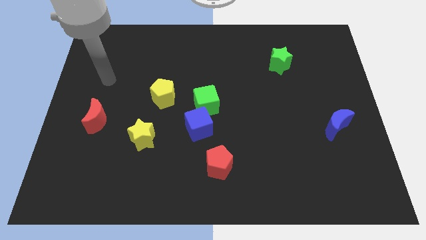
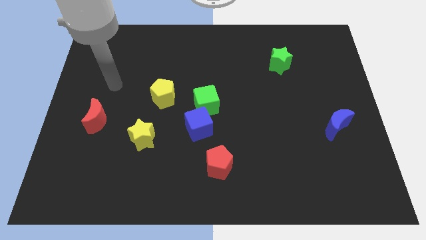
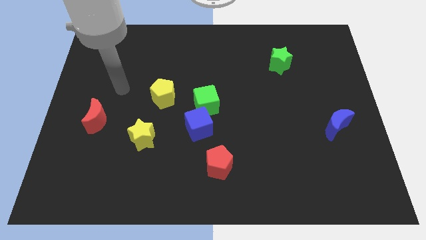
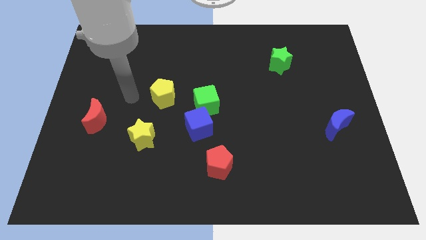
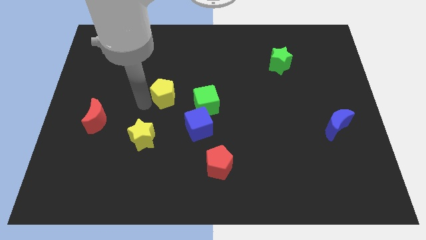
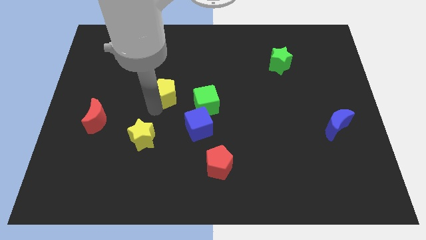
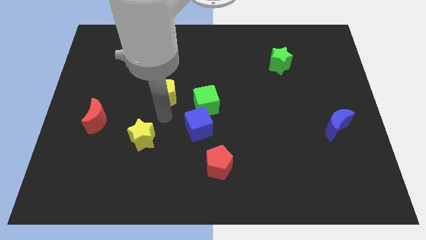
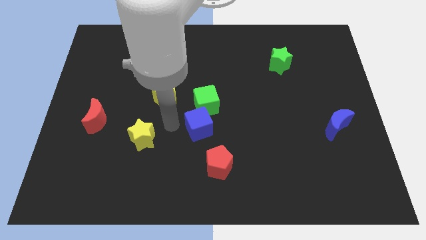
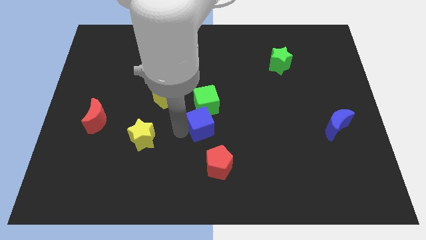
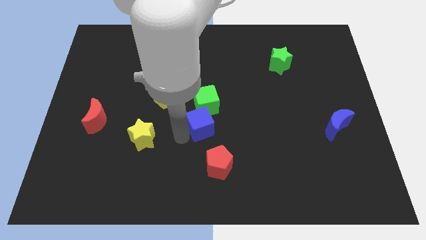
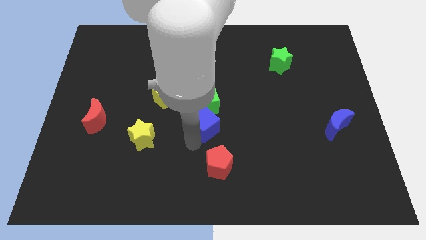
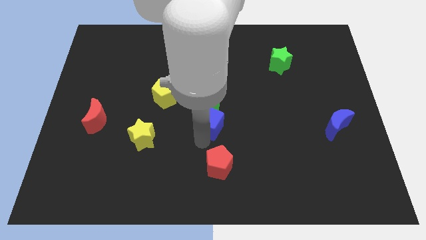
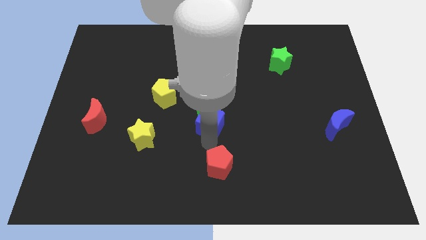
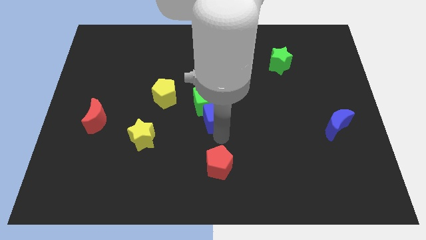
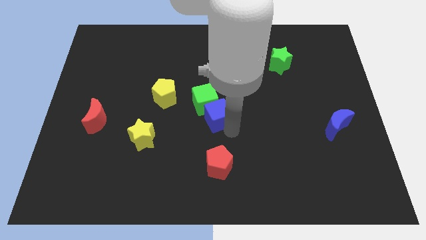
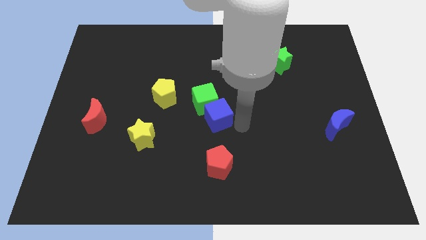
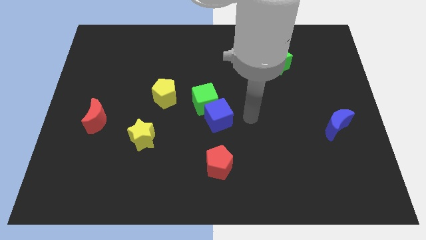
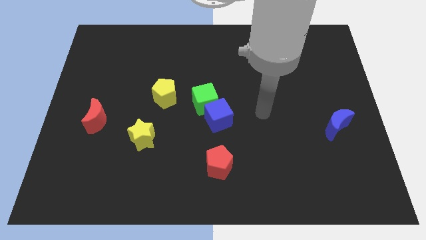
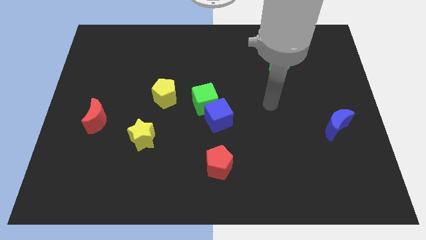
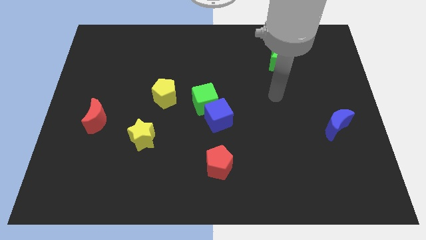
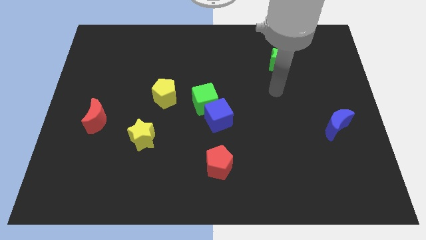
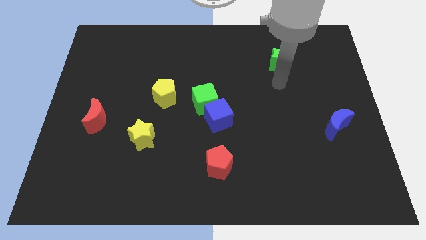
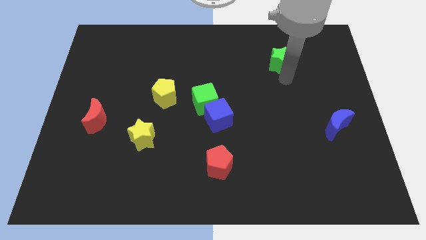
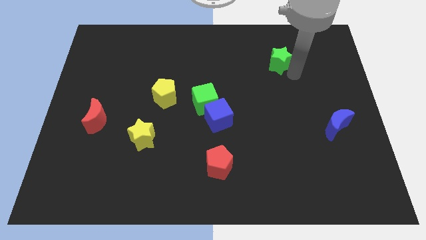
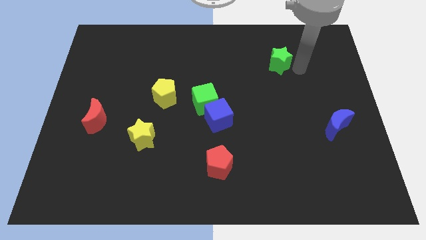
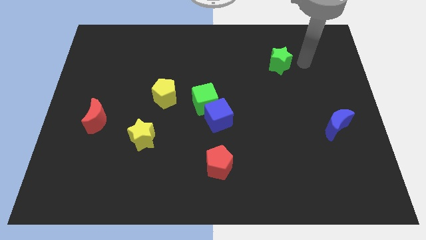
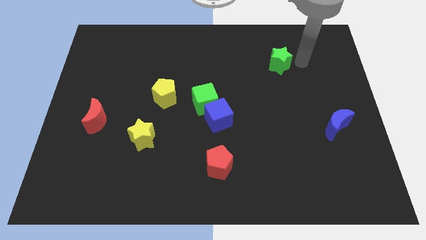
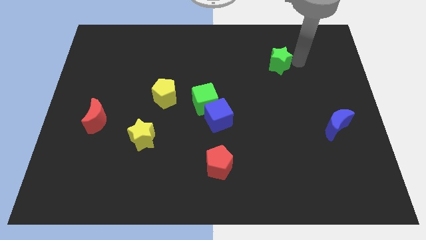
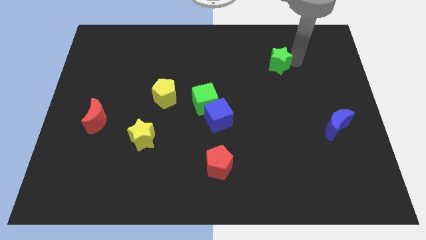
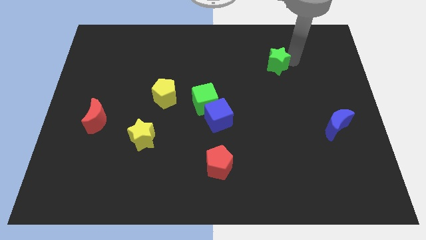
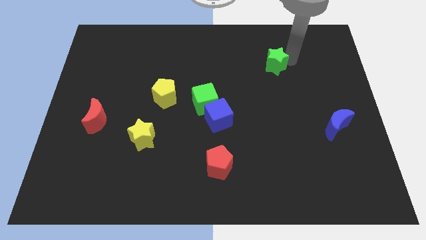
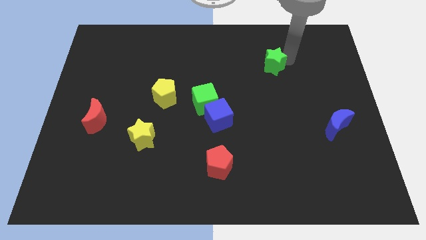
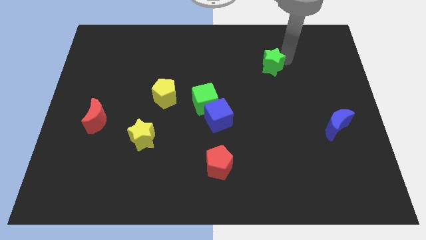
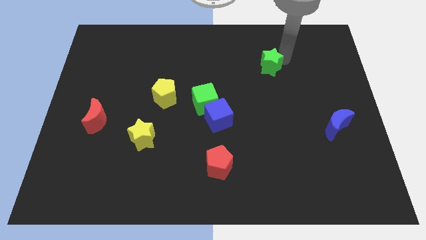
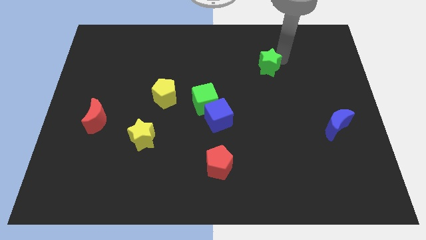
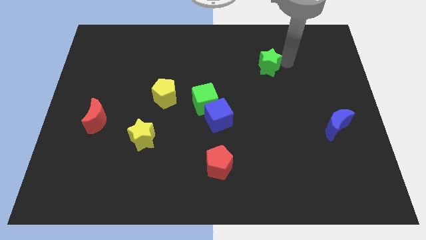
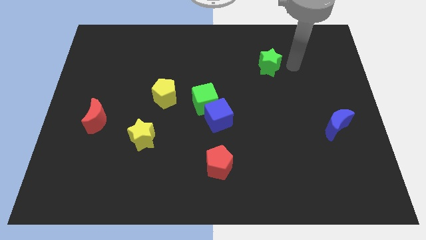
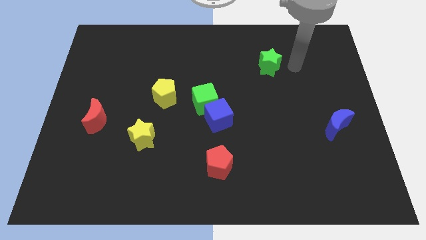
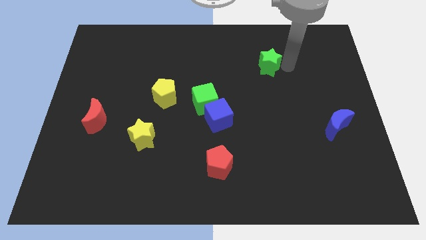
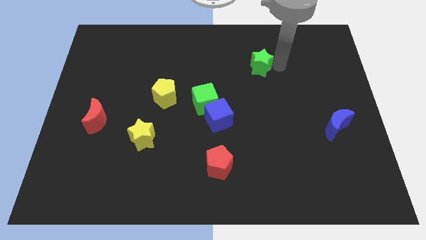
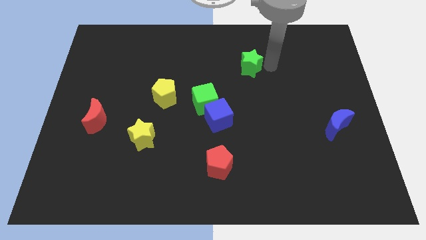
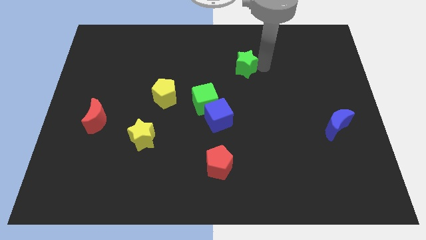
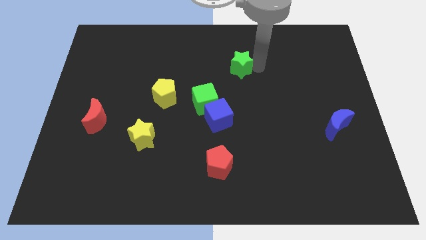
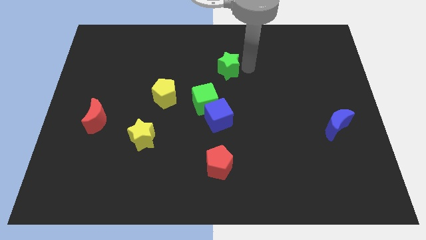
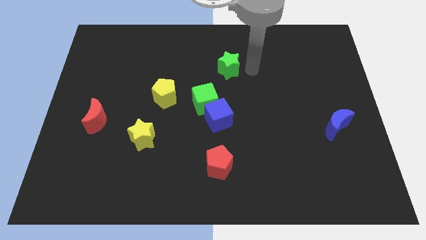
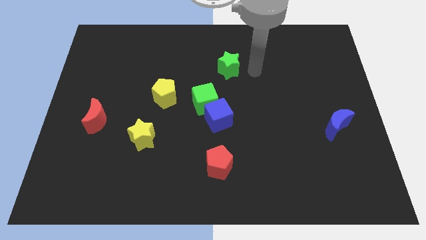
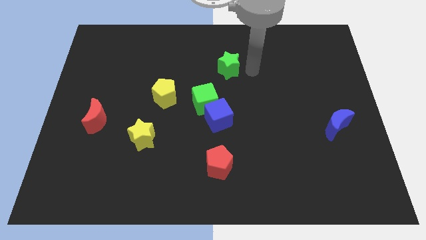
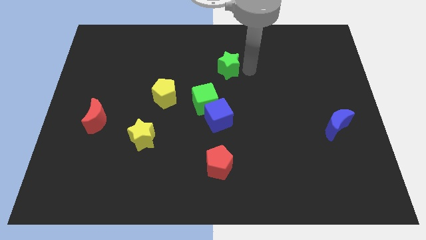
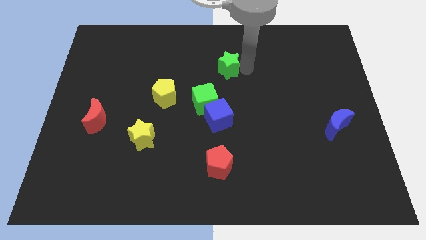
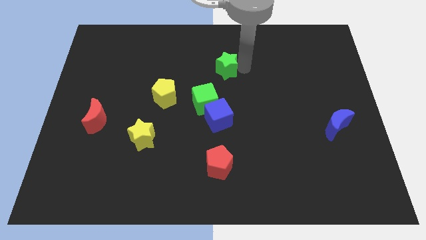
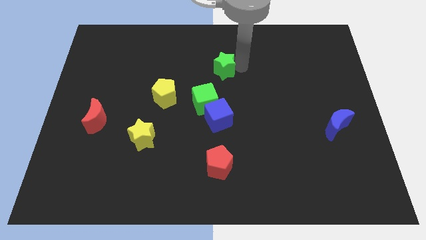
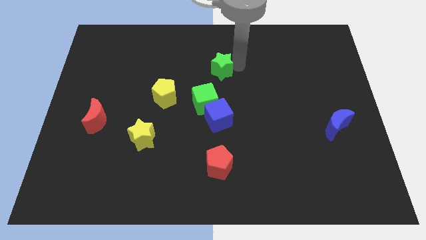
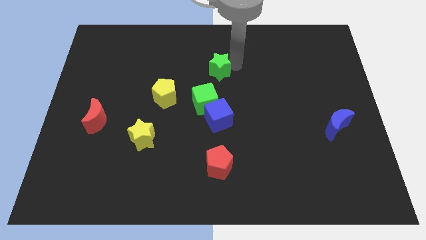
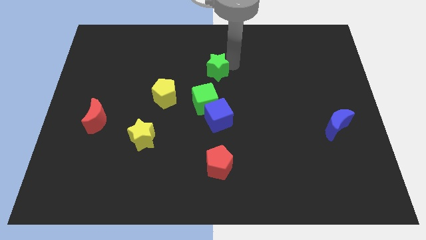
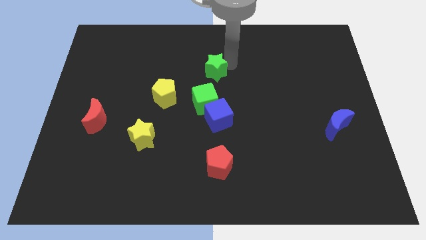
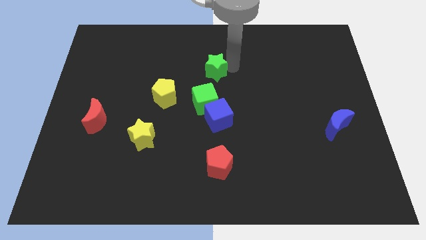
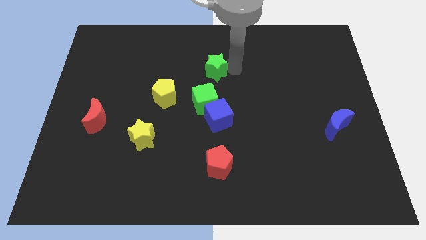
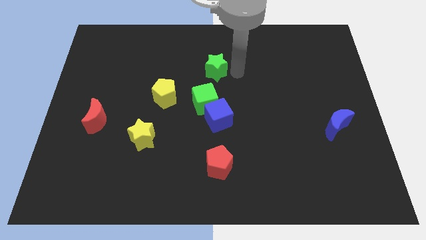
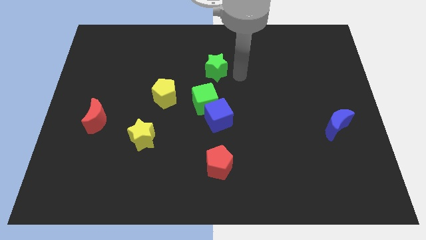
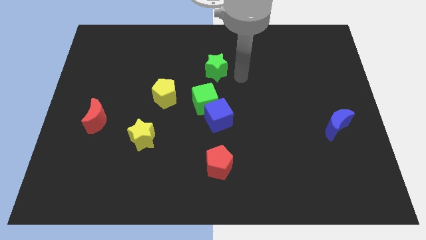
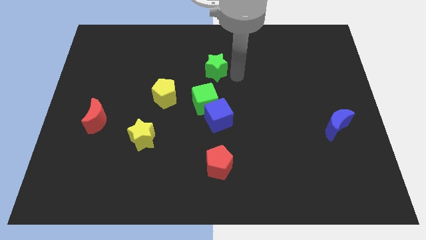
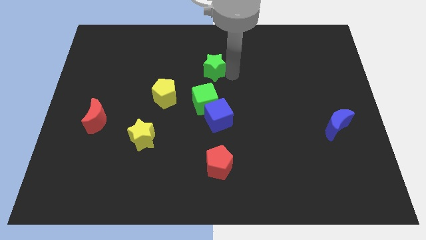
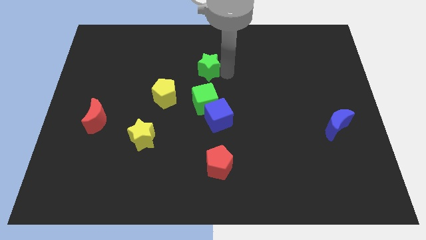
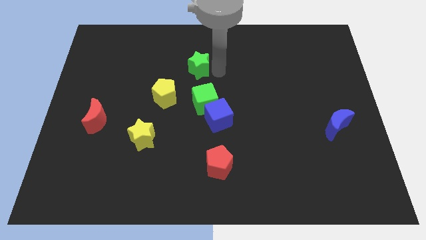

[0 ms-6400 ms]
move the green star to the left

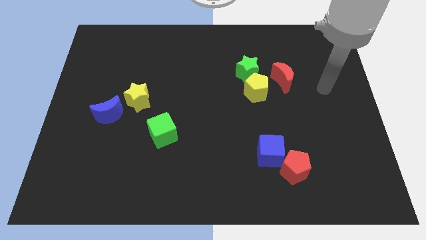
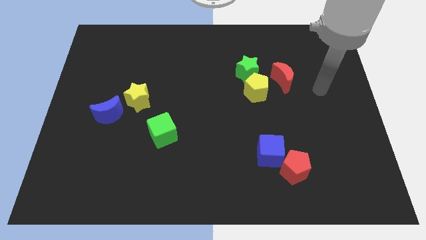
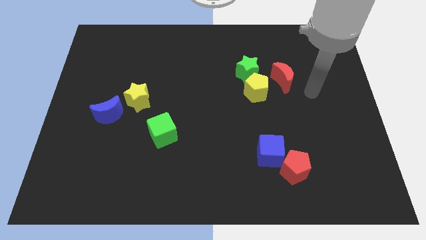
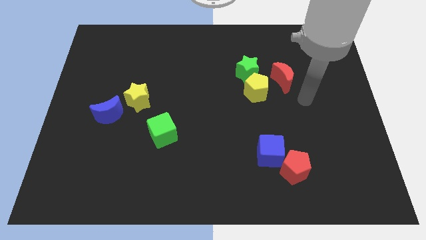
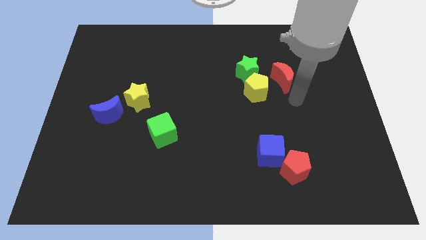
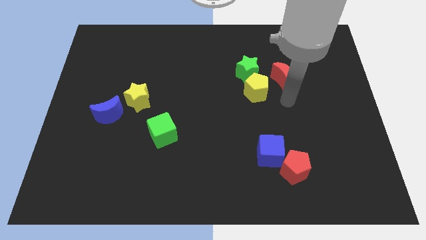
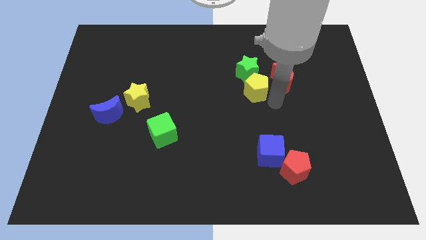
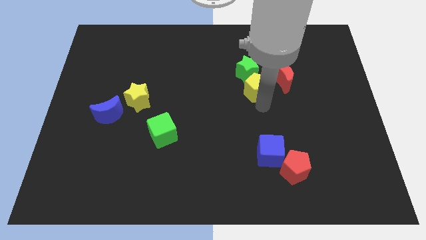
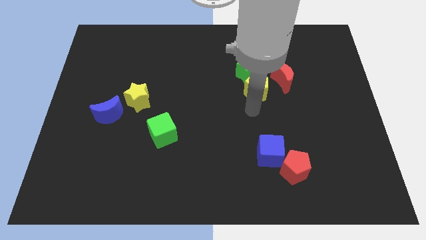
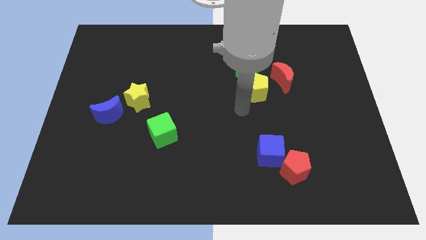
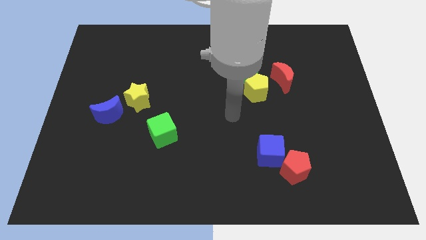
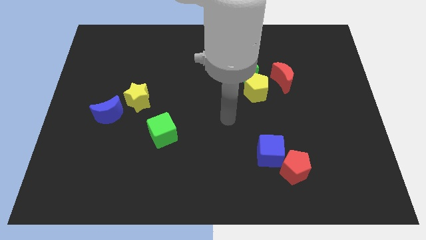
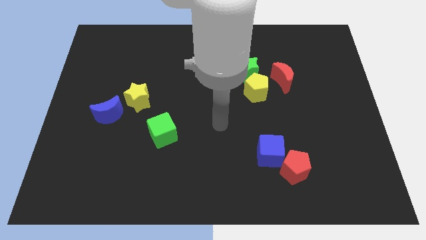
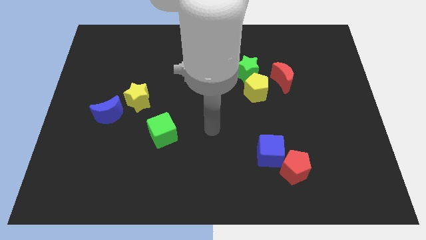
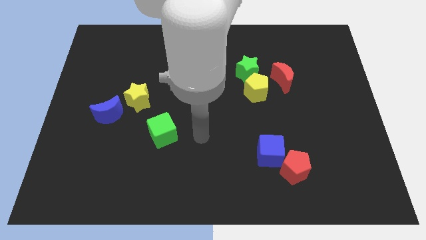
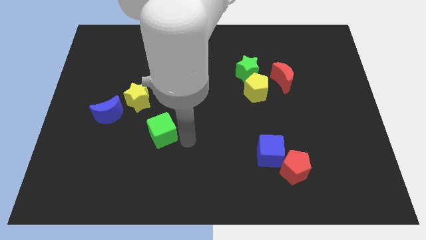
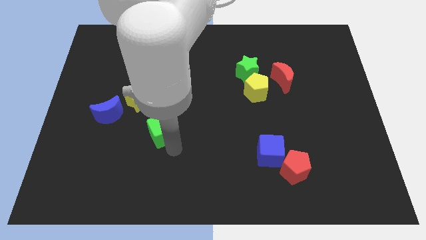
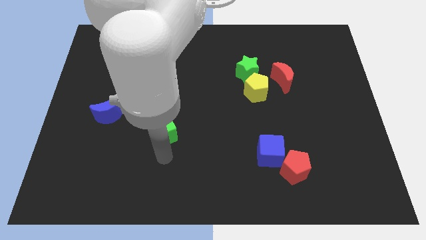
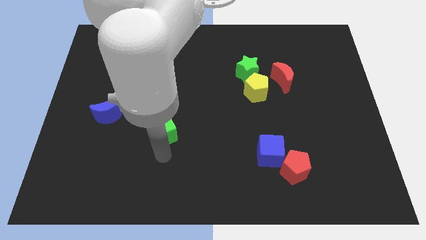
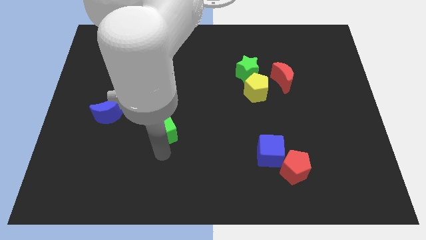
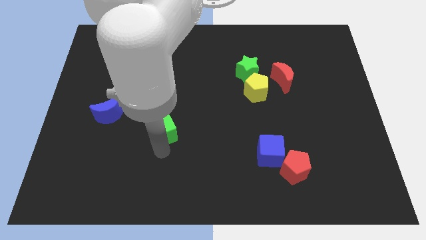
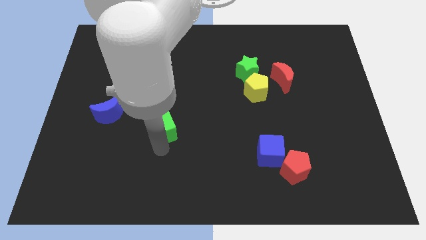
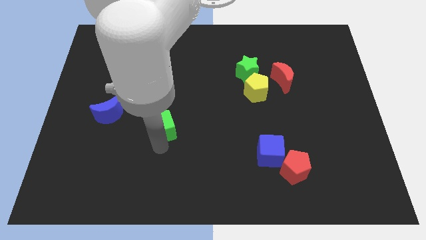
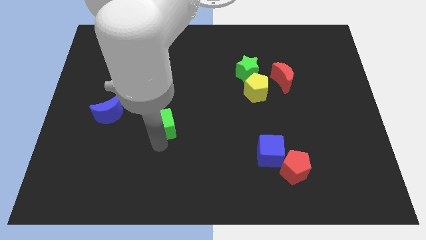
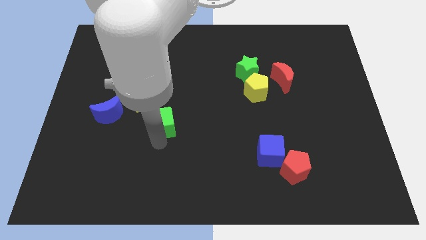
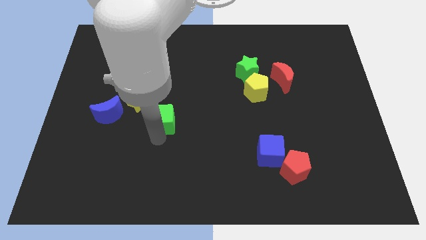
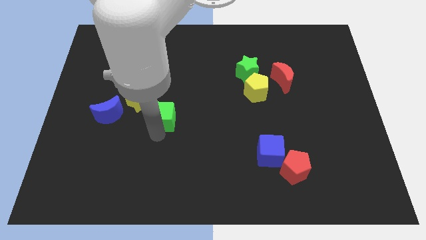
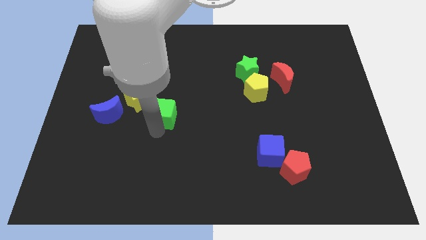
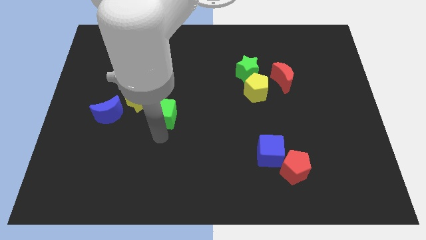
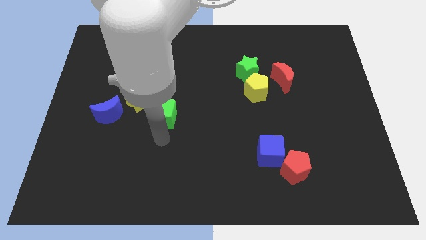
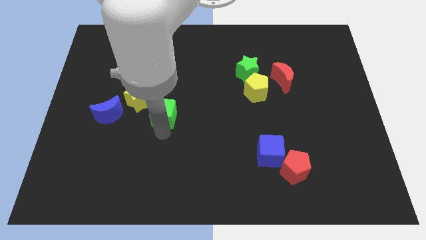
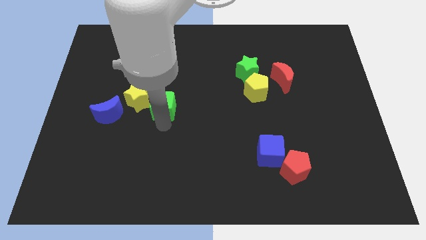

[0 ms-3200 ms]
slightly push the green cube up
